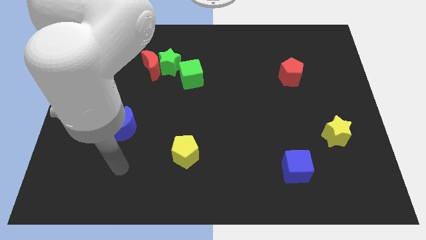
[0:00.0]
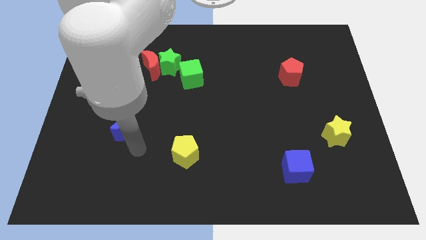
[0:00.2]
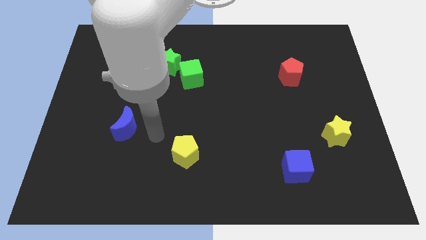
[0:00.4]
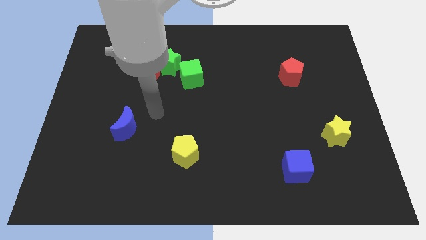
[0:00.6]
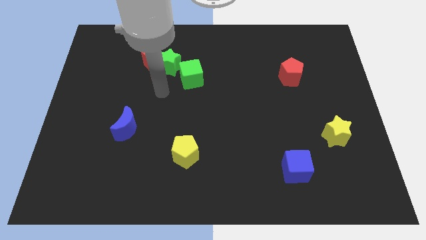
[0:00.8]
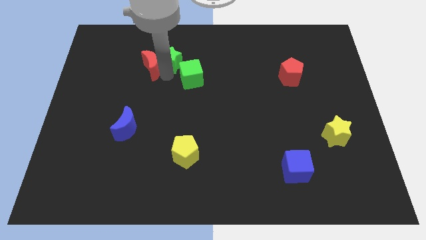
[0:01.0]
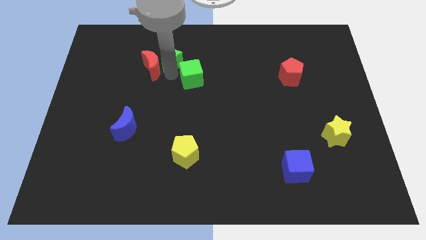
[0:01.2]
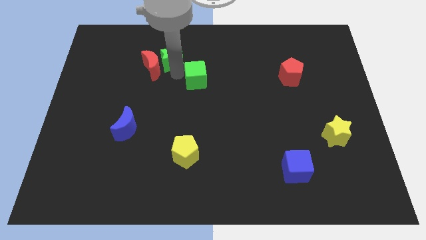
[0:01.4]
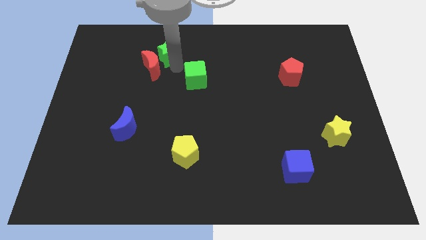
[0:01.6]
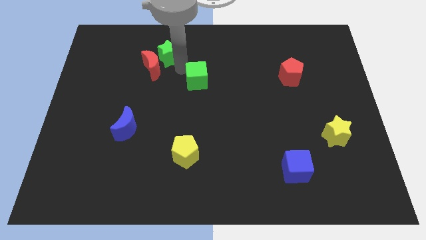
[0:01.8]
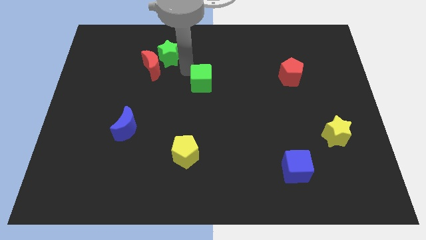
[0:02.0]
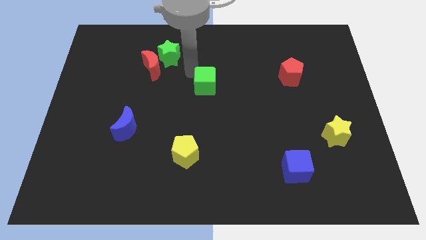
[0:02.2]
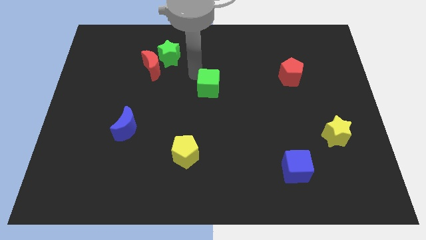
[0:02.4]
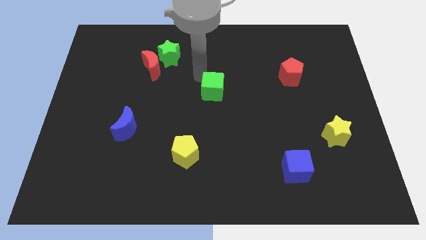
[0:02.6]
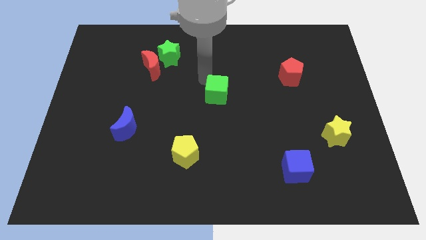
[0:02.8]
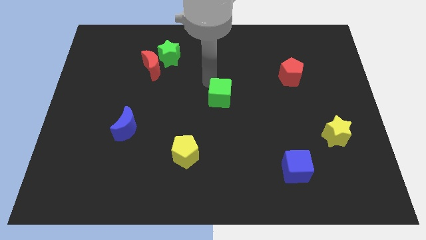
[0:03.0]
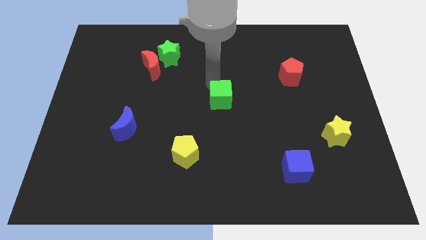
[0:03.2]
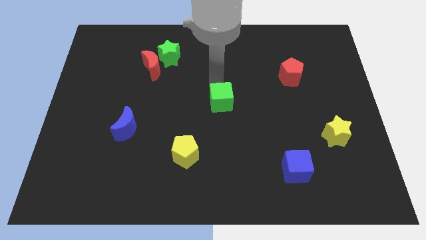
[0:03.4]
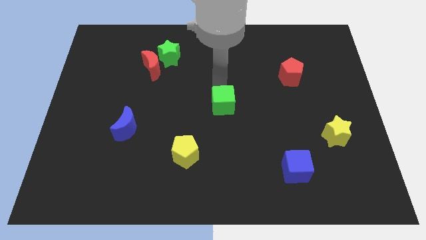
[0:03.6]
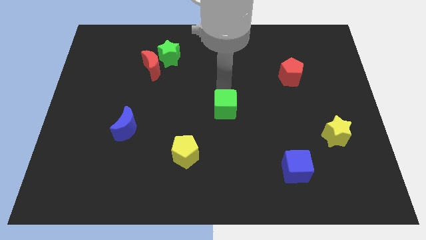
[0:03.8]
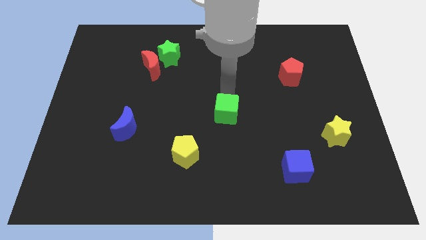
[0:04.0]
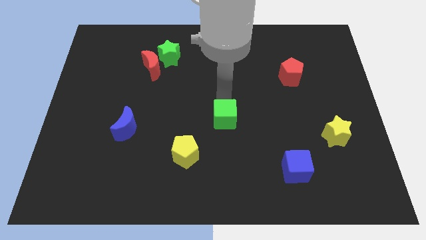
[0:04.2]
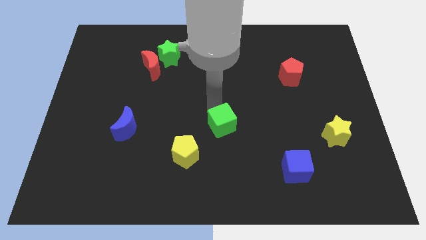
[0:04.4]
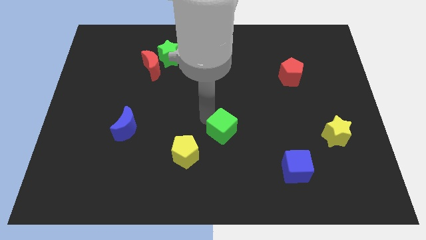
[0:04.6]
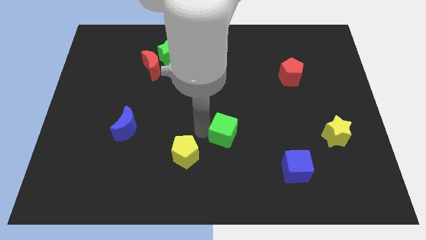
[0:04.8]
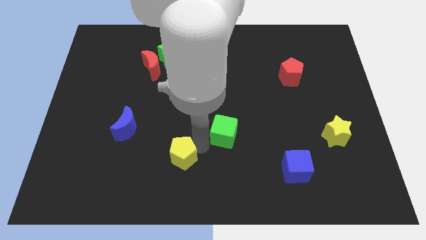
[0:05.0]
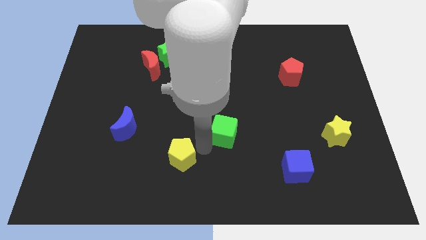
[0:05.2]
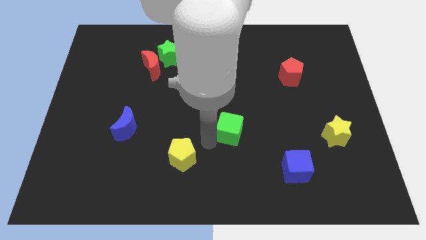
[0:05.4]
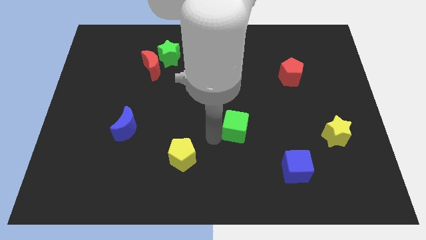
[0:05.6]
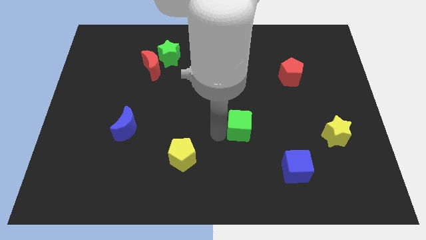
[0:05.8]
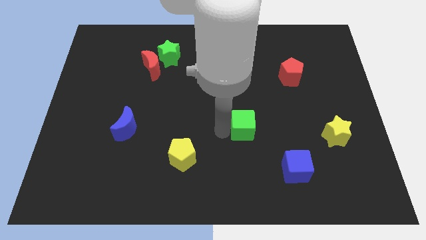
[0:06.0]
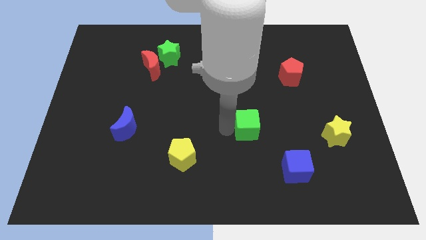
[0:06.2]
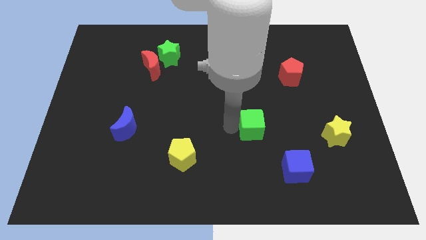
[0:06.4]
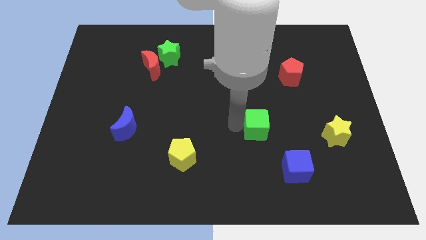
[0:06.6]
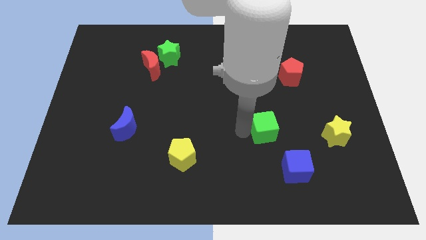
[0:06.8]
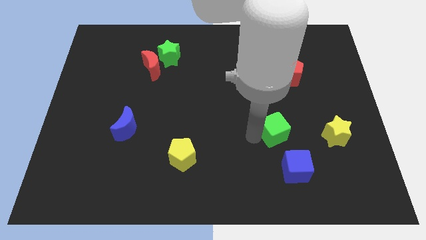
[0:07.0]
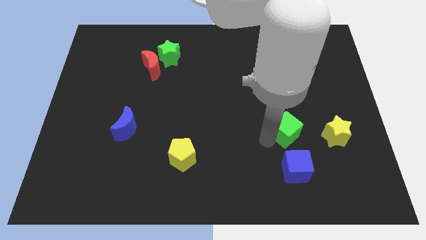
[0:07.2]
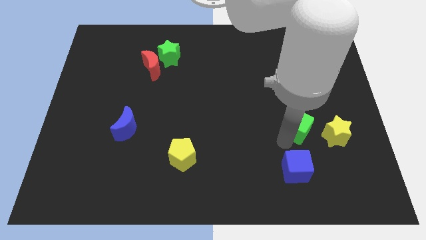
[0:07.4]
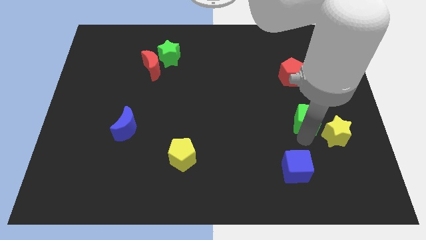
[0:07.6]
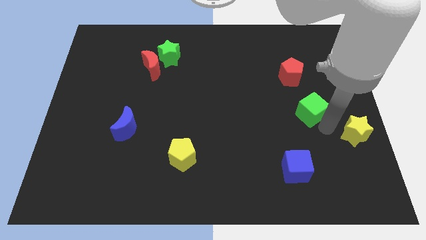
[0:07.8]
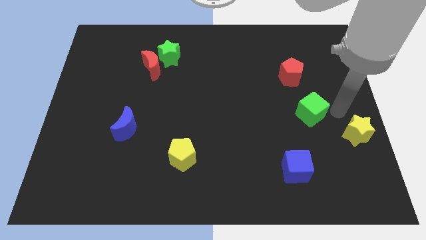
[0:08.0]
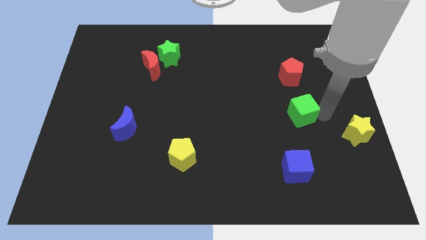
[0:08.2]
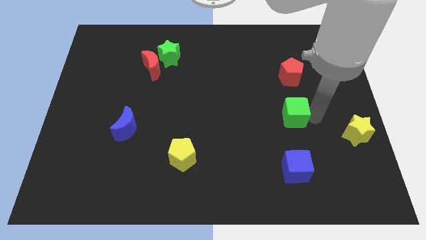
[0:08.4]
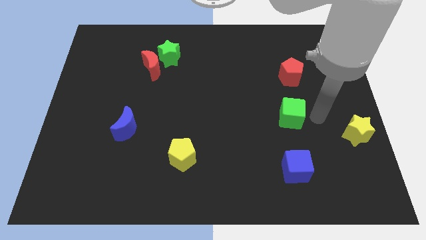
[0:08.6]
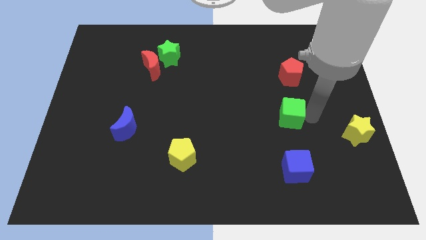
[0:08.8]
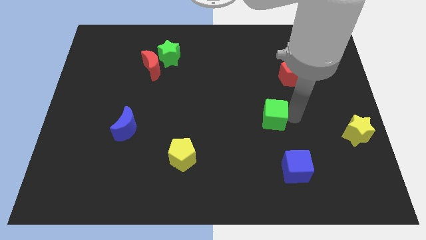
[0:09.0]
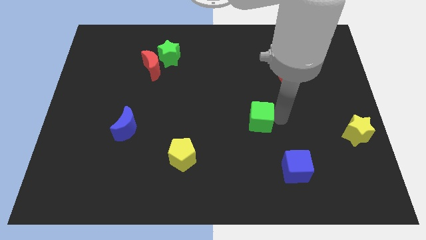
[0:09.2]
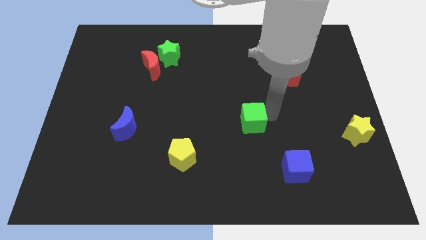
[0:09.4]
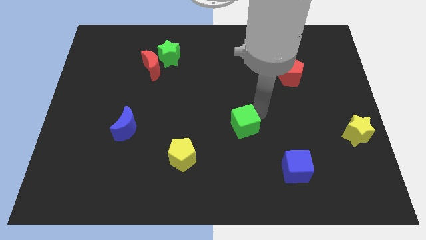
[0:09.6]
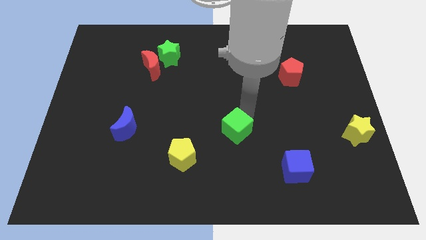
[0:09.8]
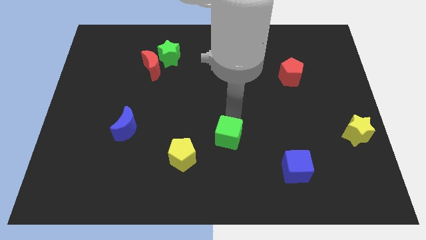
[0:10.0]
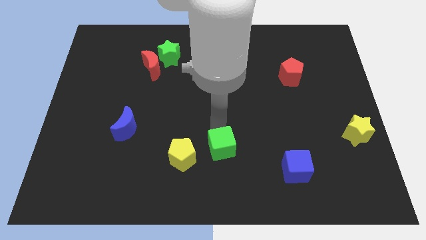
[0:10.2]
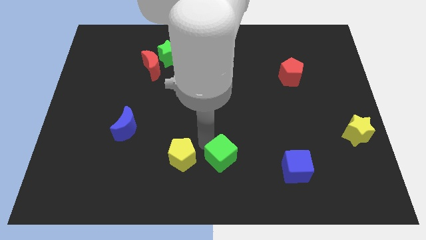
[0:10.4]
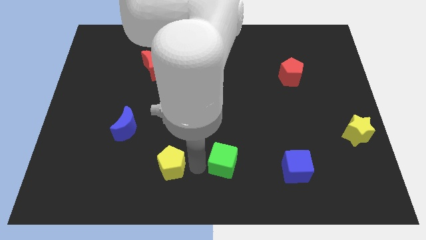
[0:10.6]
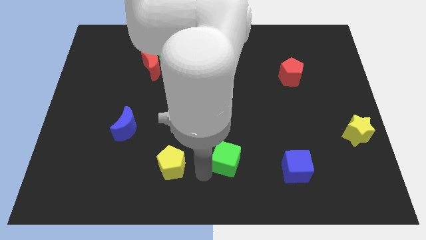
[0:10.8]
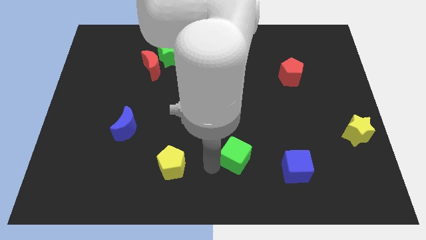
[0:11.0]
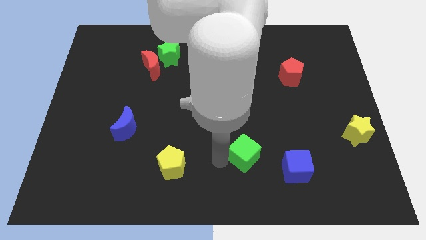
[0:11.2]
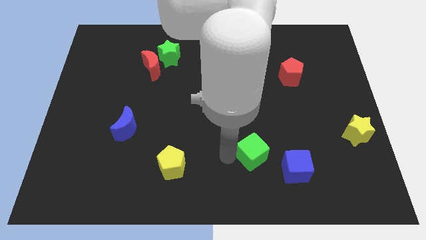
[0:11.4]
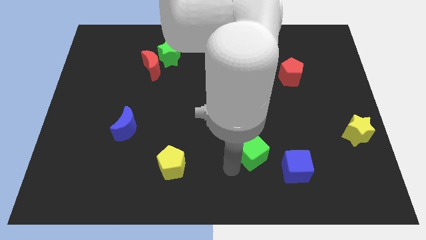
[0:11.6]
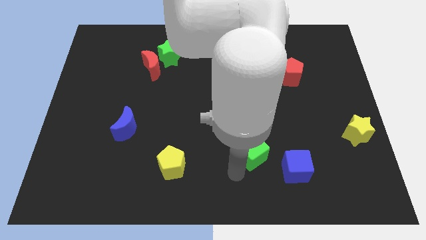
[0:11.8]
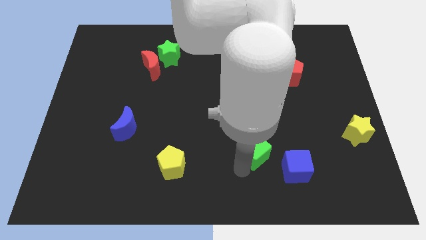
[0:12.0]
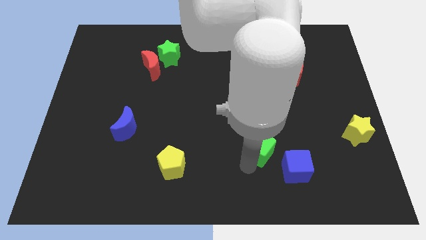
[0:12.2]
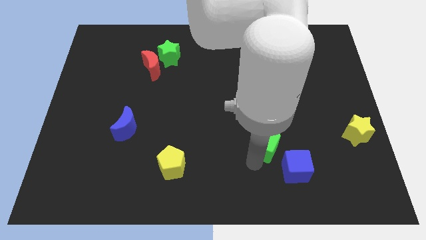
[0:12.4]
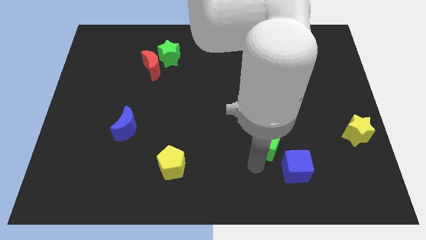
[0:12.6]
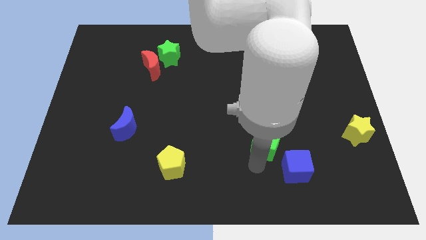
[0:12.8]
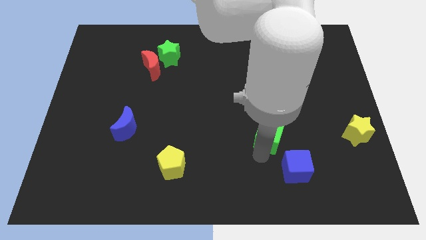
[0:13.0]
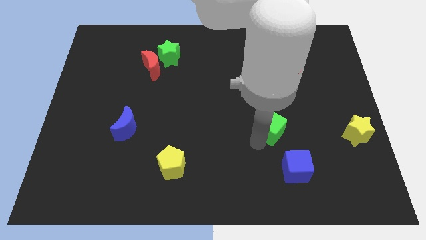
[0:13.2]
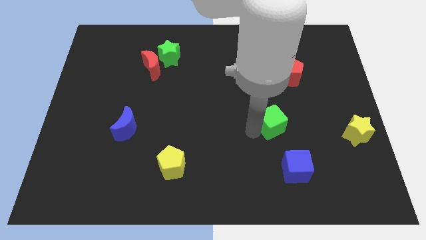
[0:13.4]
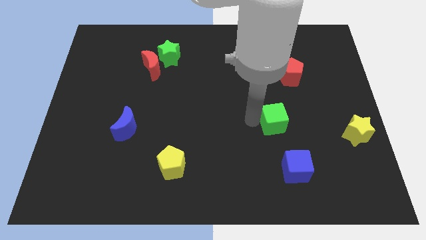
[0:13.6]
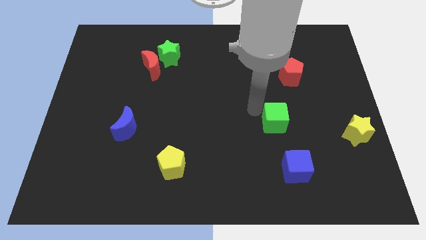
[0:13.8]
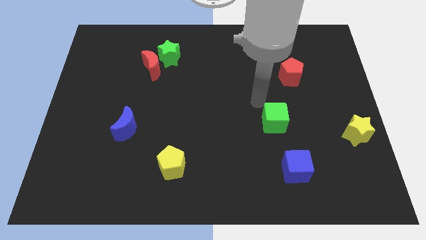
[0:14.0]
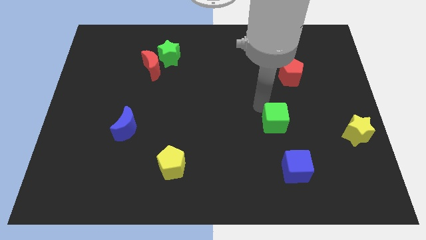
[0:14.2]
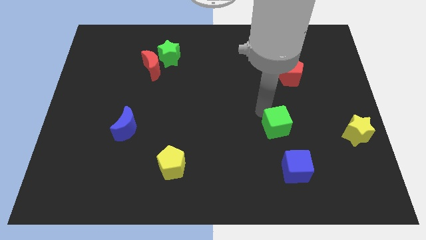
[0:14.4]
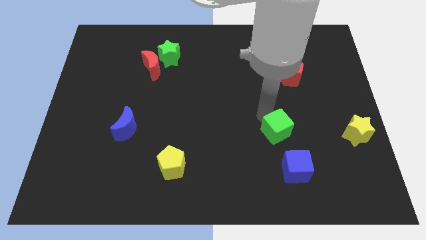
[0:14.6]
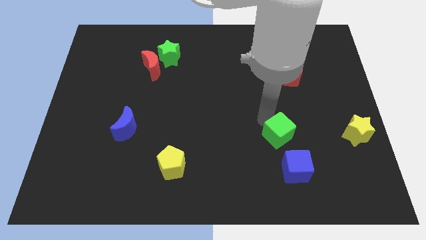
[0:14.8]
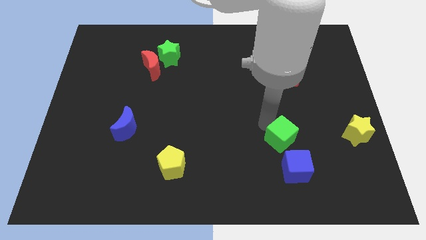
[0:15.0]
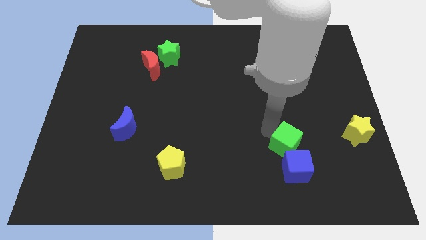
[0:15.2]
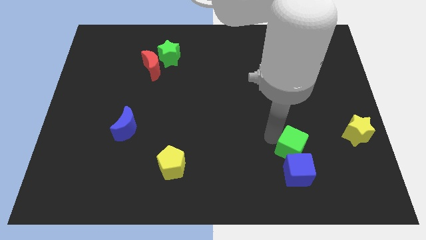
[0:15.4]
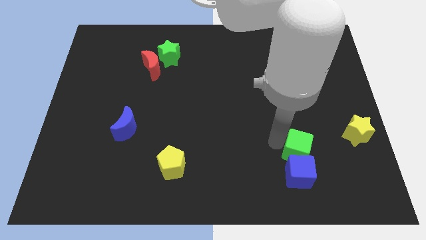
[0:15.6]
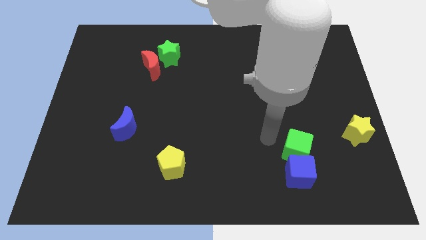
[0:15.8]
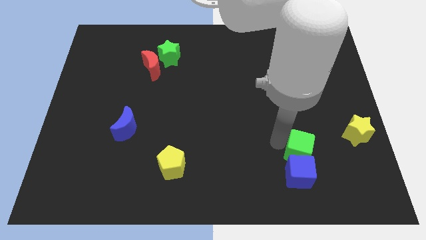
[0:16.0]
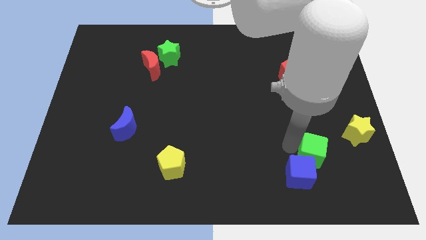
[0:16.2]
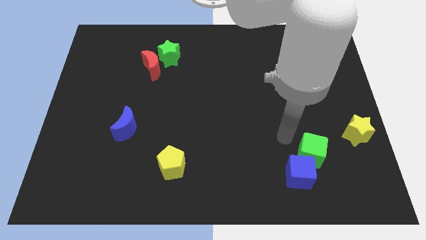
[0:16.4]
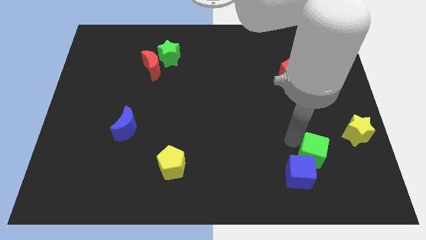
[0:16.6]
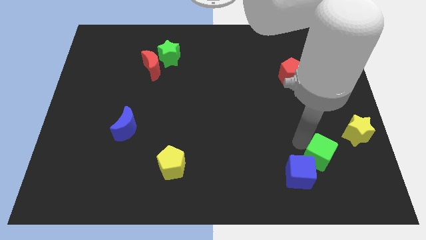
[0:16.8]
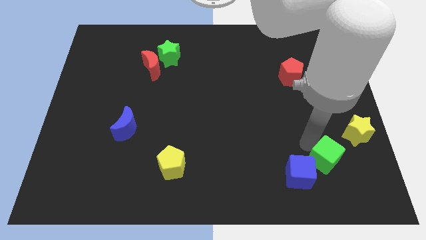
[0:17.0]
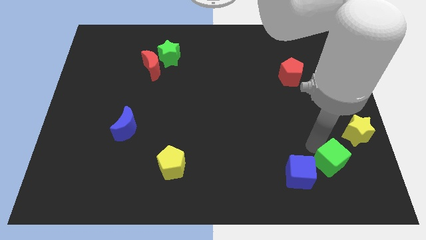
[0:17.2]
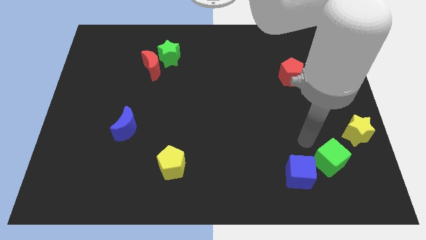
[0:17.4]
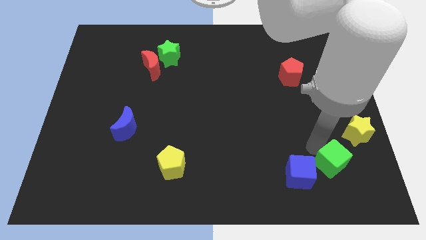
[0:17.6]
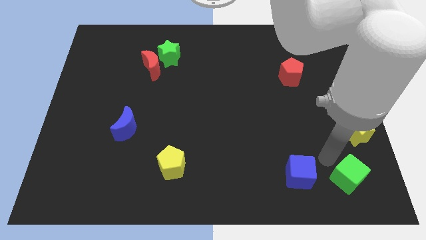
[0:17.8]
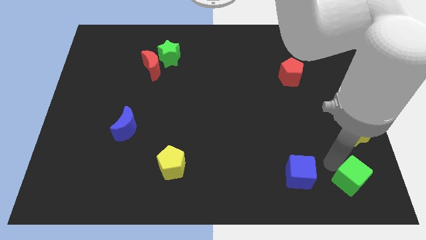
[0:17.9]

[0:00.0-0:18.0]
slide the green cube to the bottom right corner
